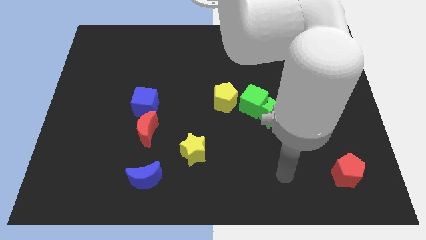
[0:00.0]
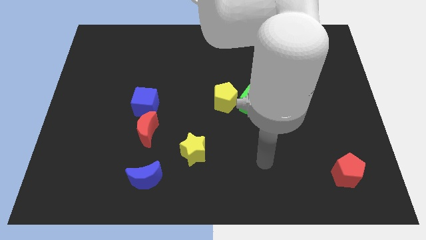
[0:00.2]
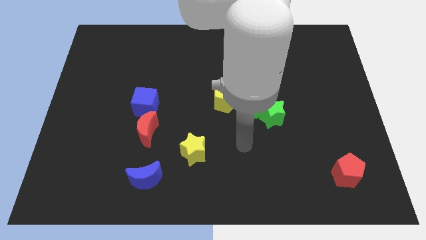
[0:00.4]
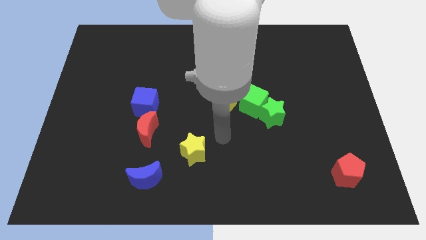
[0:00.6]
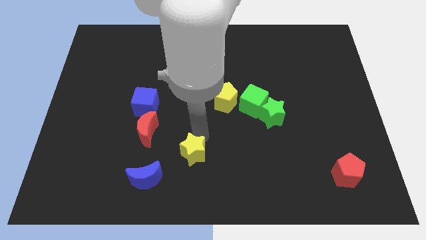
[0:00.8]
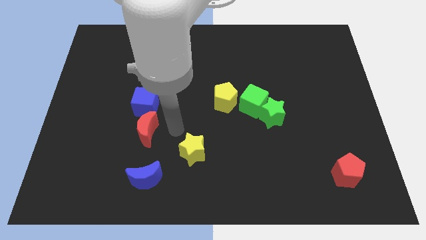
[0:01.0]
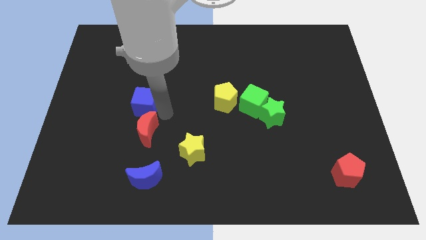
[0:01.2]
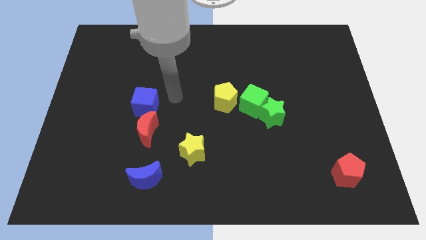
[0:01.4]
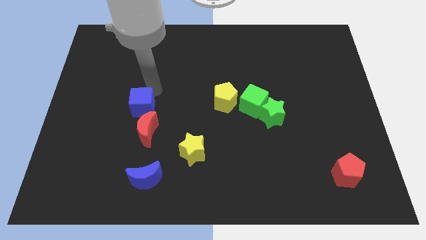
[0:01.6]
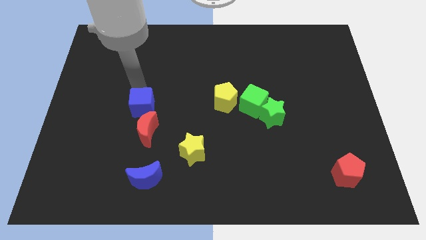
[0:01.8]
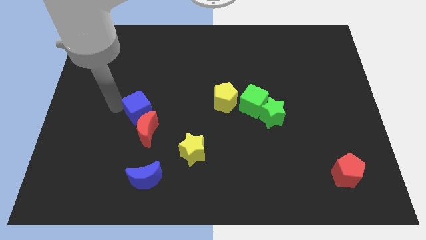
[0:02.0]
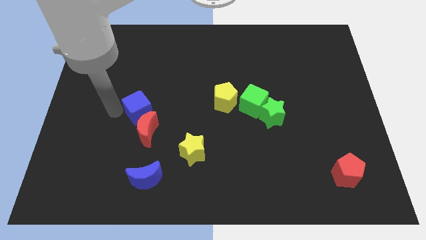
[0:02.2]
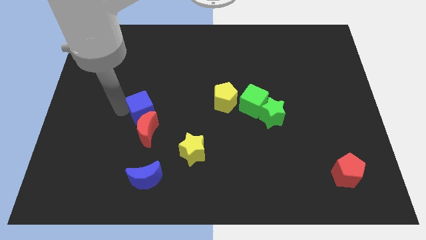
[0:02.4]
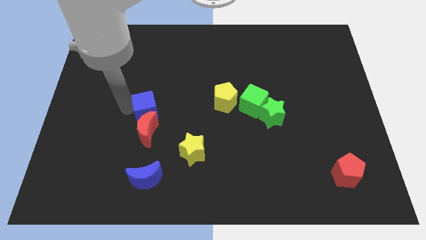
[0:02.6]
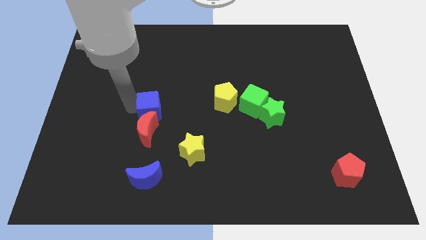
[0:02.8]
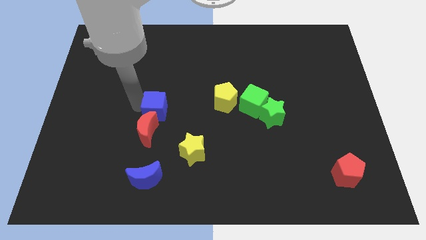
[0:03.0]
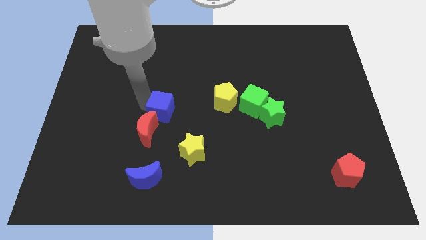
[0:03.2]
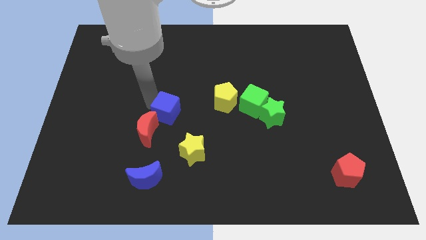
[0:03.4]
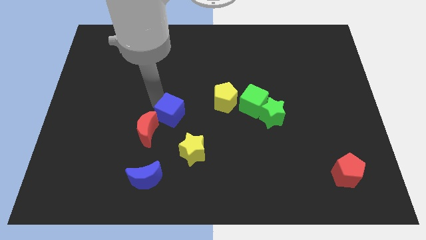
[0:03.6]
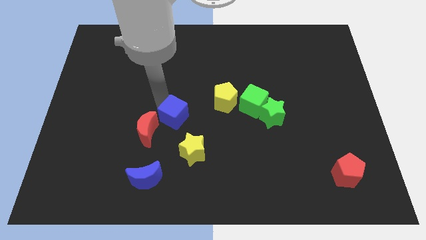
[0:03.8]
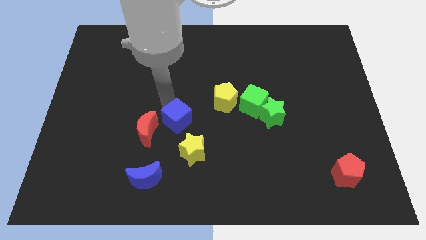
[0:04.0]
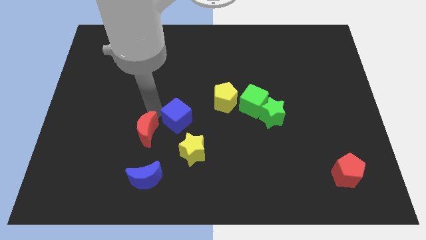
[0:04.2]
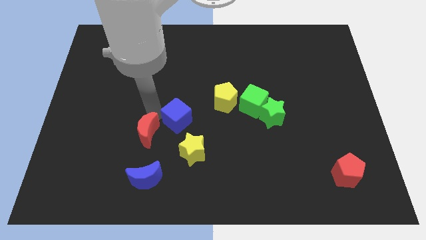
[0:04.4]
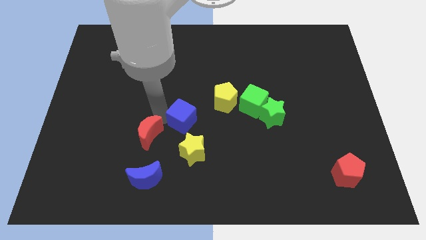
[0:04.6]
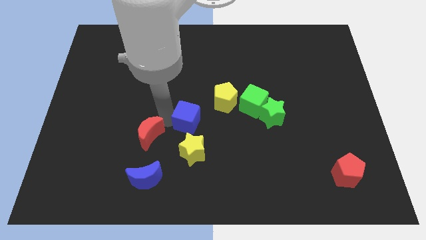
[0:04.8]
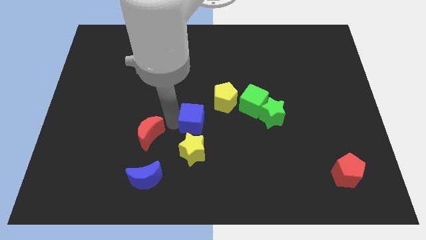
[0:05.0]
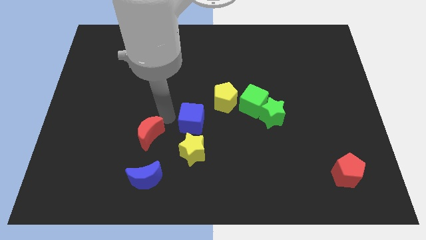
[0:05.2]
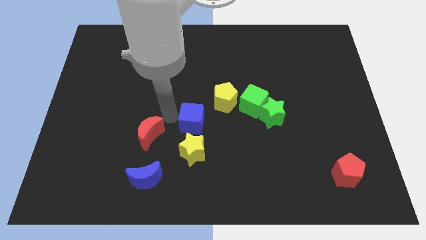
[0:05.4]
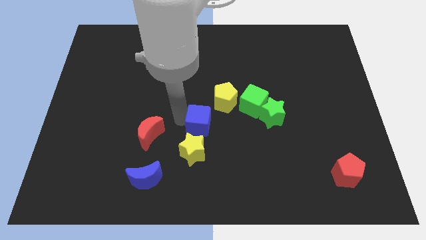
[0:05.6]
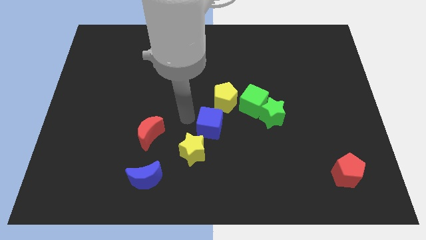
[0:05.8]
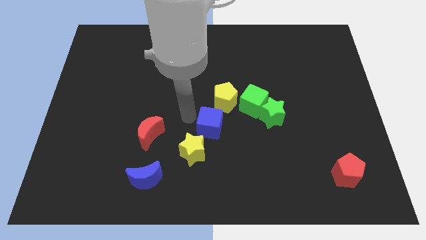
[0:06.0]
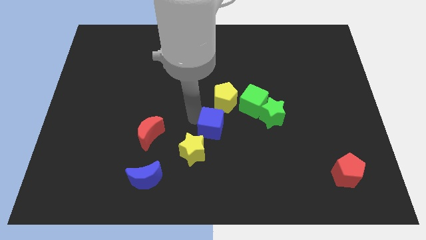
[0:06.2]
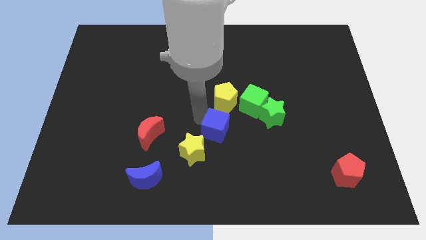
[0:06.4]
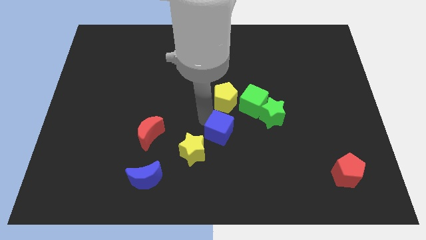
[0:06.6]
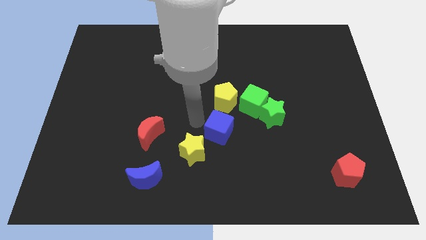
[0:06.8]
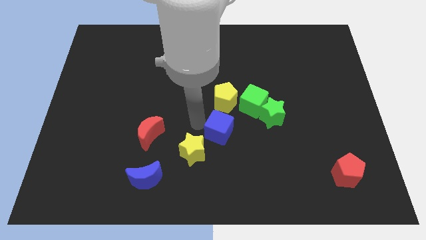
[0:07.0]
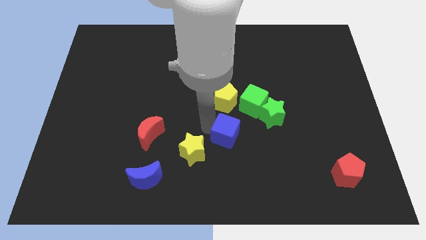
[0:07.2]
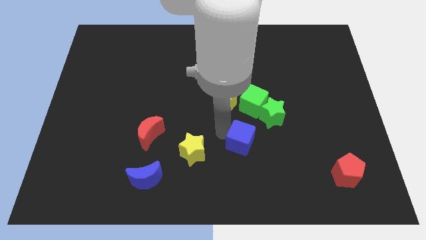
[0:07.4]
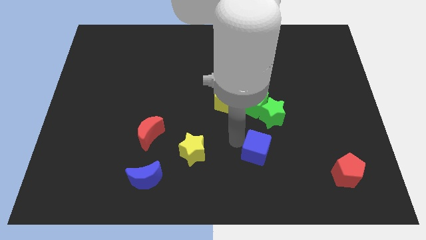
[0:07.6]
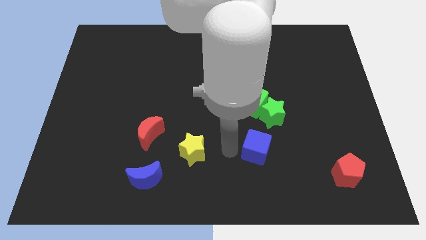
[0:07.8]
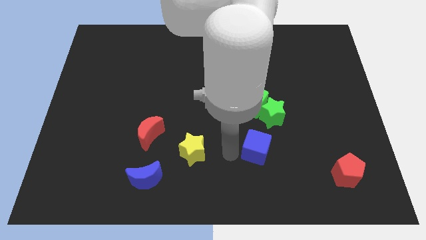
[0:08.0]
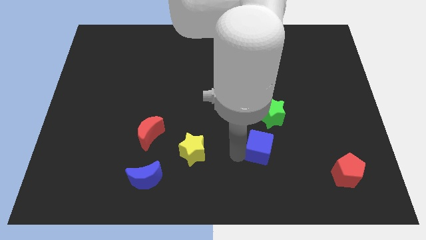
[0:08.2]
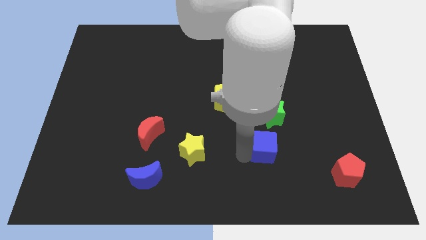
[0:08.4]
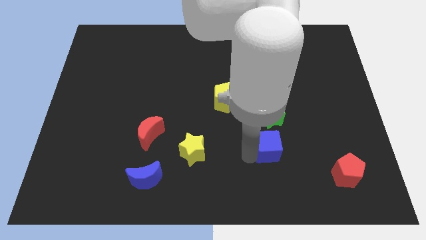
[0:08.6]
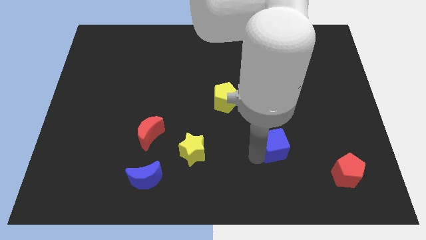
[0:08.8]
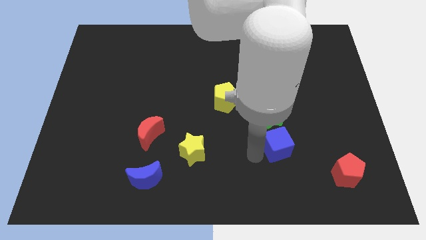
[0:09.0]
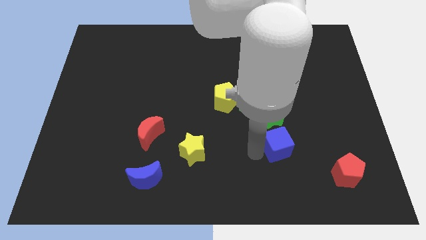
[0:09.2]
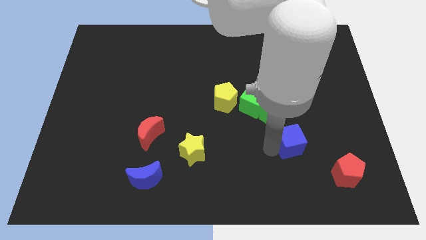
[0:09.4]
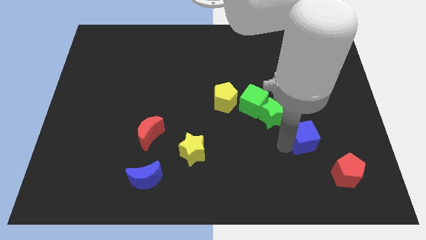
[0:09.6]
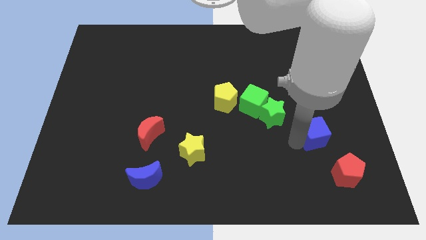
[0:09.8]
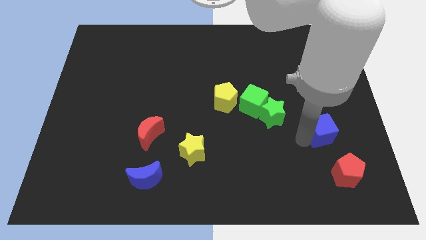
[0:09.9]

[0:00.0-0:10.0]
slide the blue cube to the top side of the red pentagon

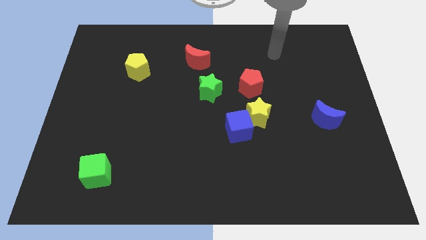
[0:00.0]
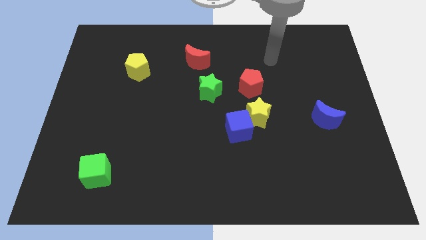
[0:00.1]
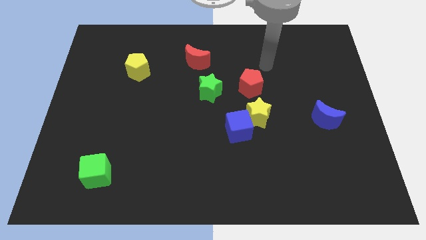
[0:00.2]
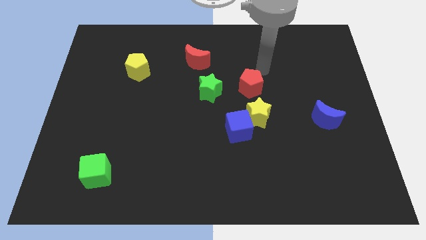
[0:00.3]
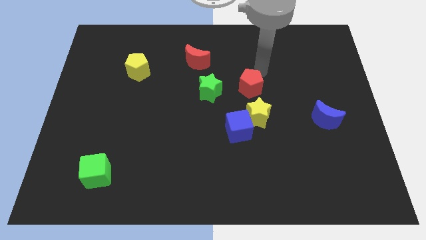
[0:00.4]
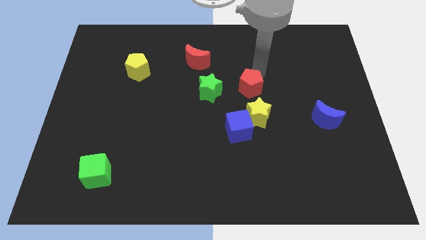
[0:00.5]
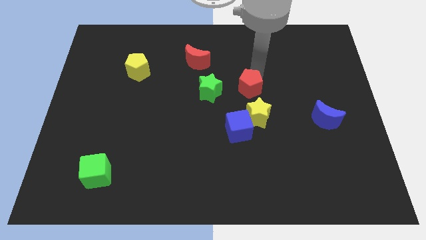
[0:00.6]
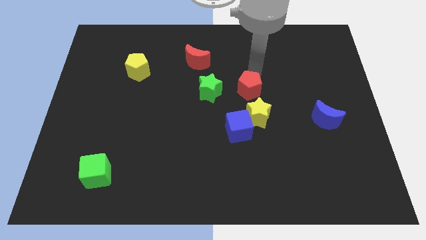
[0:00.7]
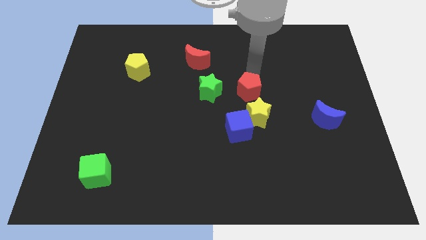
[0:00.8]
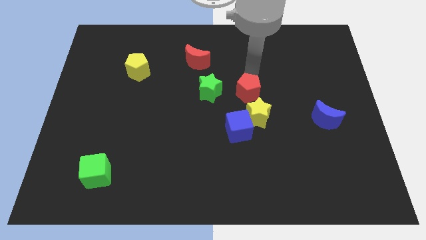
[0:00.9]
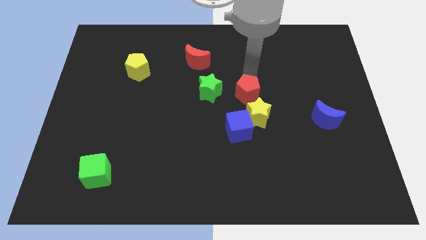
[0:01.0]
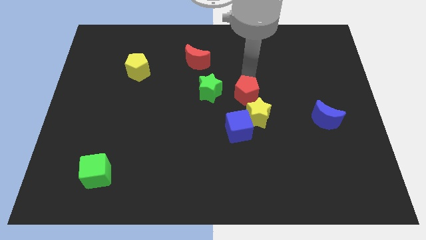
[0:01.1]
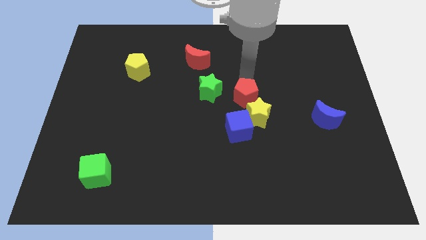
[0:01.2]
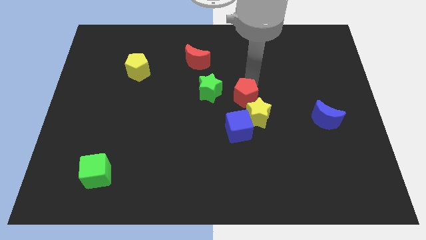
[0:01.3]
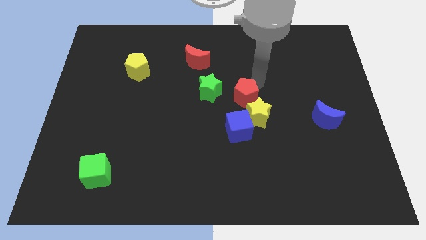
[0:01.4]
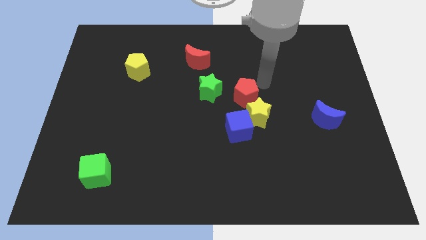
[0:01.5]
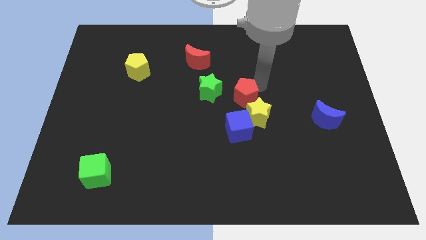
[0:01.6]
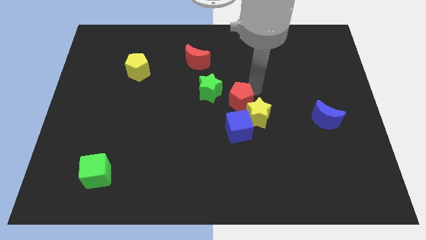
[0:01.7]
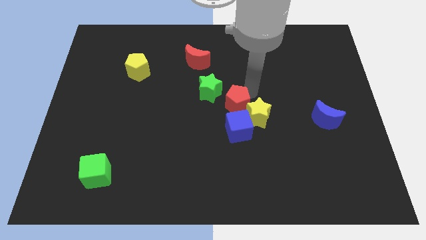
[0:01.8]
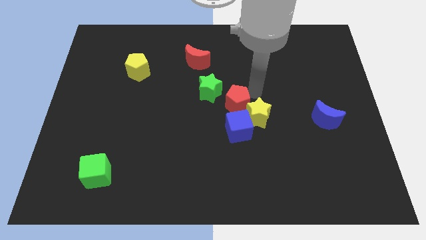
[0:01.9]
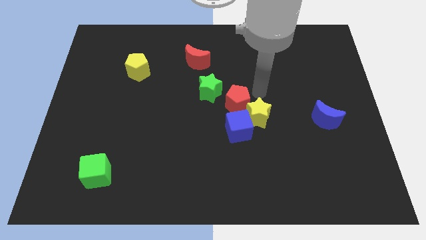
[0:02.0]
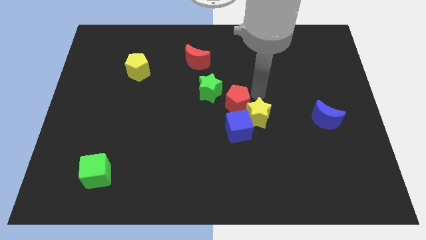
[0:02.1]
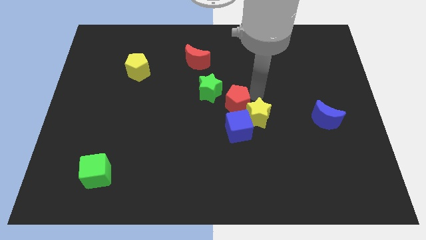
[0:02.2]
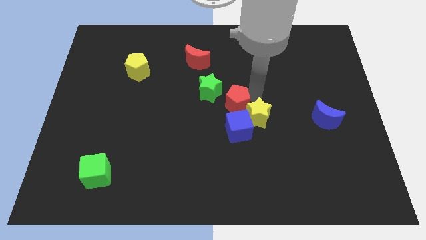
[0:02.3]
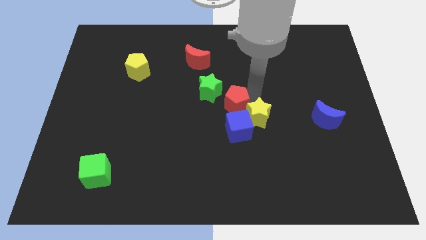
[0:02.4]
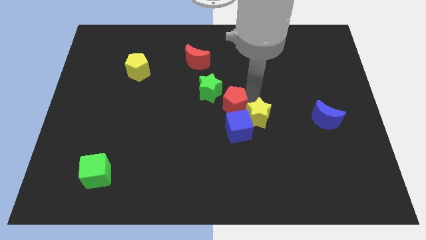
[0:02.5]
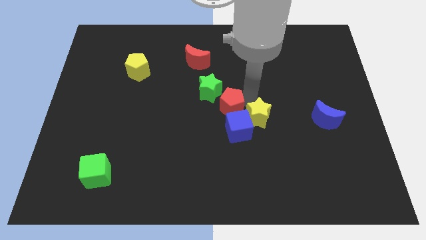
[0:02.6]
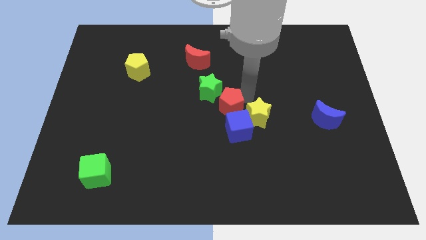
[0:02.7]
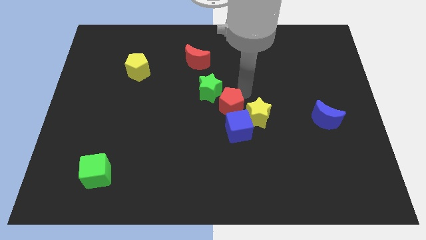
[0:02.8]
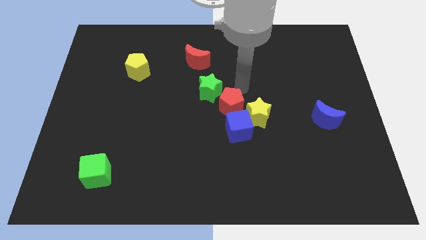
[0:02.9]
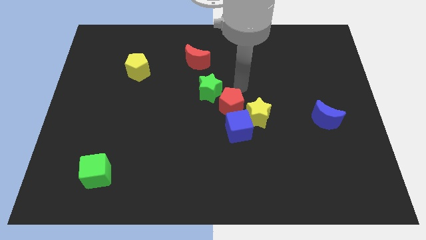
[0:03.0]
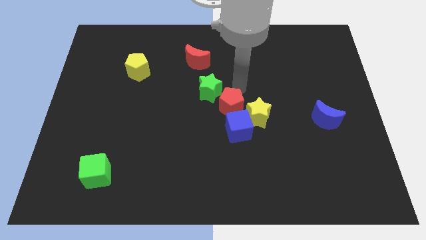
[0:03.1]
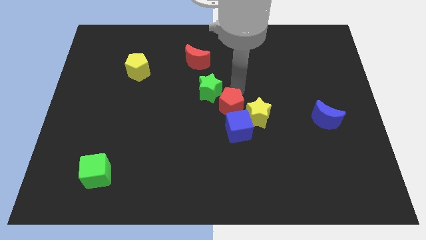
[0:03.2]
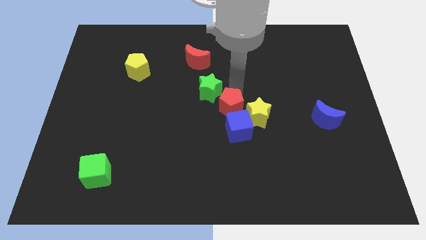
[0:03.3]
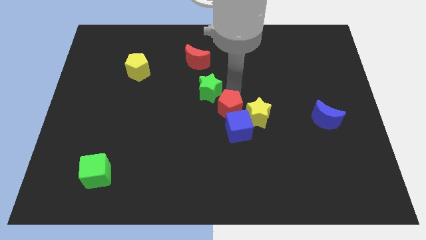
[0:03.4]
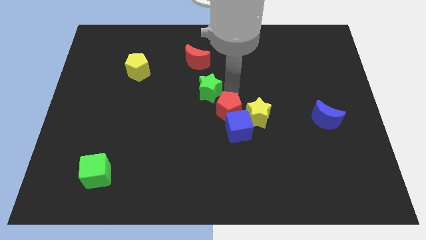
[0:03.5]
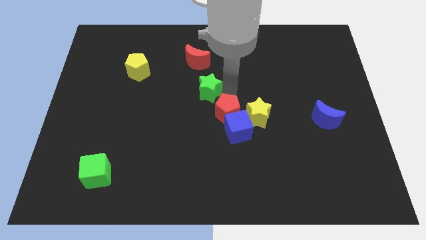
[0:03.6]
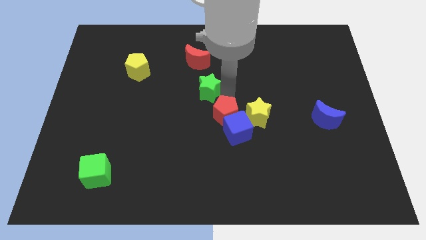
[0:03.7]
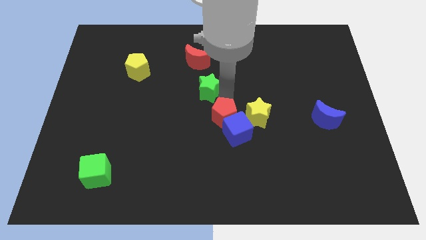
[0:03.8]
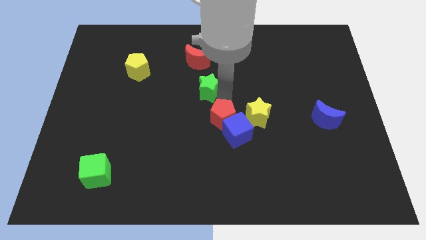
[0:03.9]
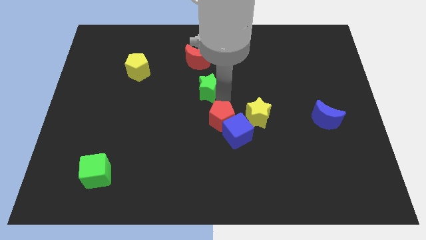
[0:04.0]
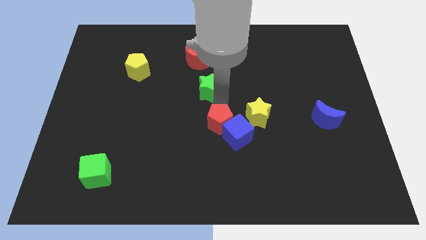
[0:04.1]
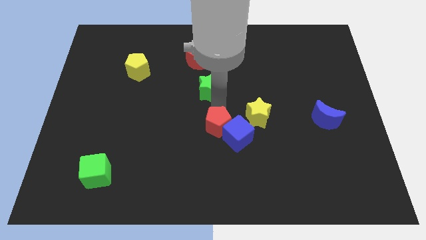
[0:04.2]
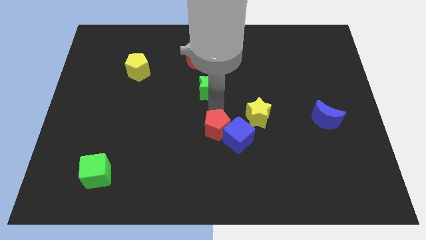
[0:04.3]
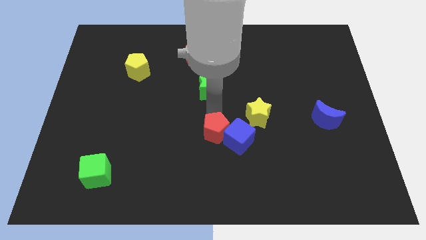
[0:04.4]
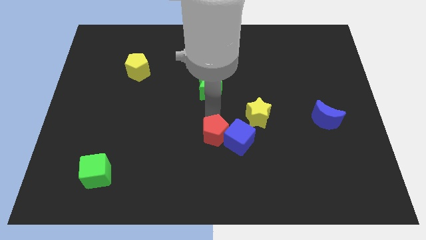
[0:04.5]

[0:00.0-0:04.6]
put the red pentagon to the bottom left side of the blue cube
